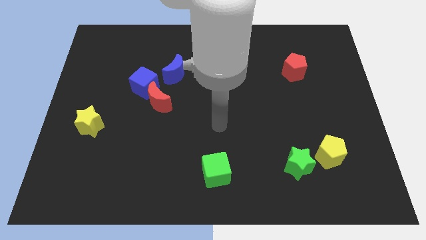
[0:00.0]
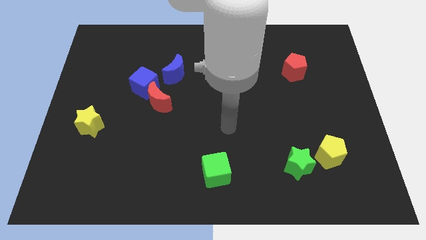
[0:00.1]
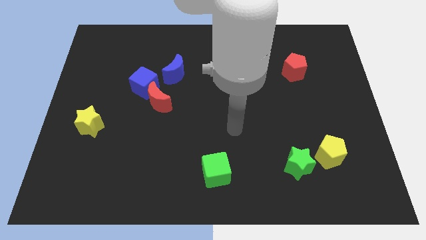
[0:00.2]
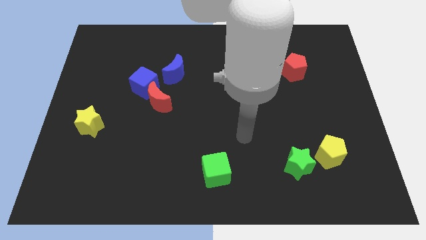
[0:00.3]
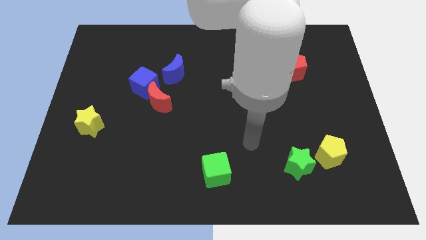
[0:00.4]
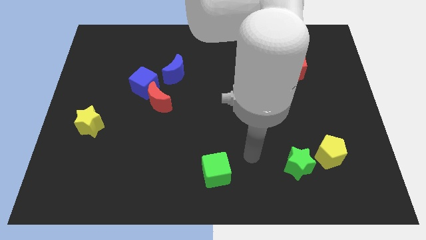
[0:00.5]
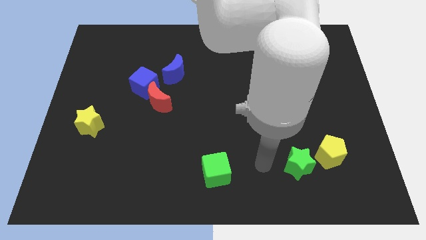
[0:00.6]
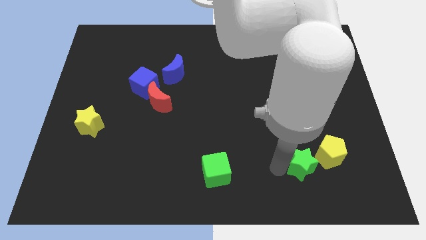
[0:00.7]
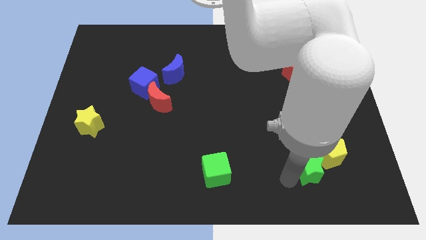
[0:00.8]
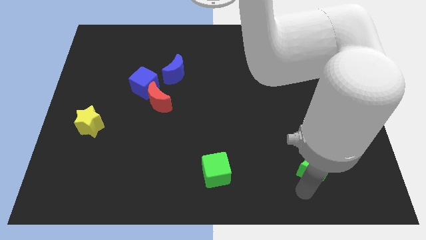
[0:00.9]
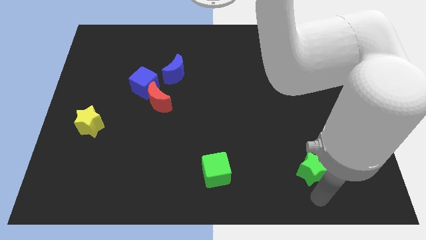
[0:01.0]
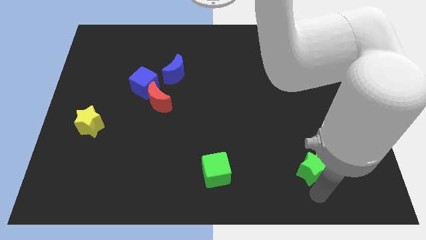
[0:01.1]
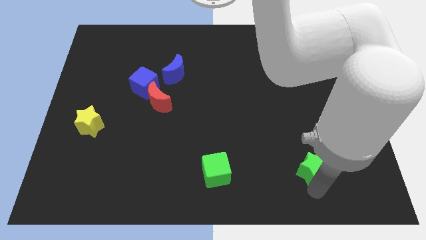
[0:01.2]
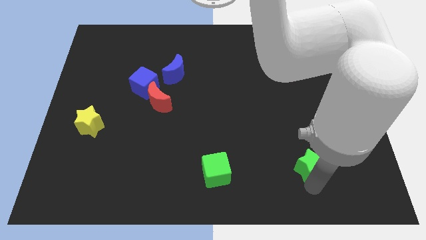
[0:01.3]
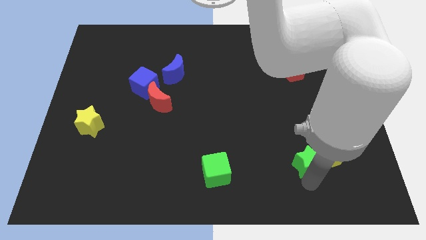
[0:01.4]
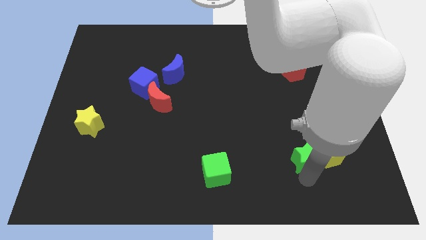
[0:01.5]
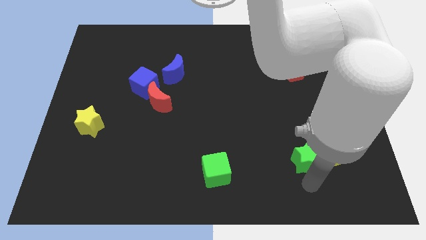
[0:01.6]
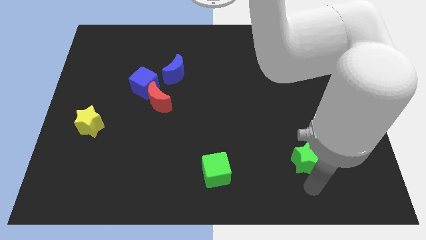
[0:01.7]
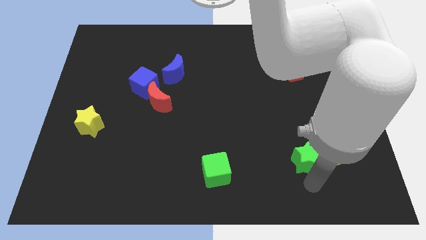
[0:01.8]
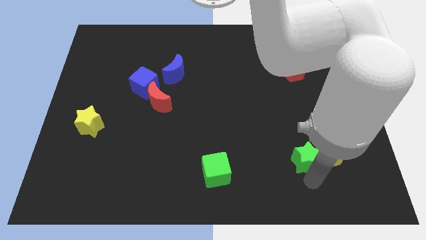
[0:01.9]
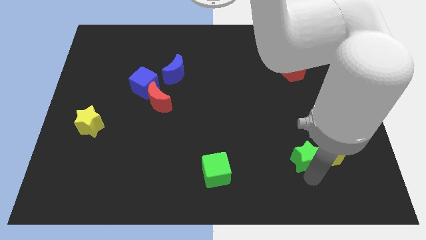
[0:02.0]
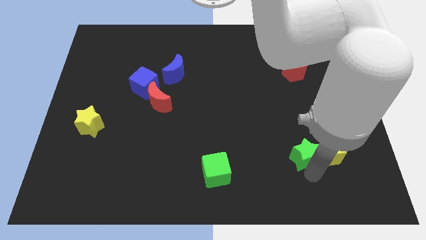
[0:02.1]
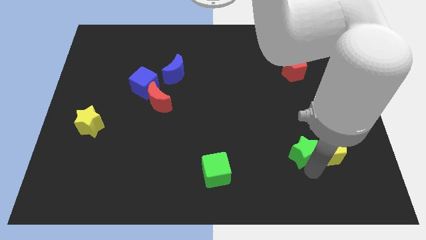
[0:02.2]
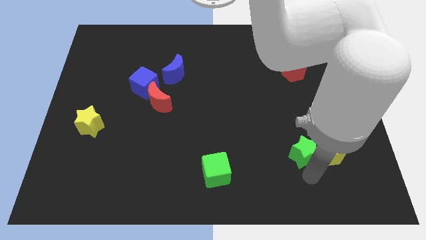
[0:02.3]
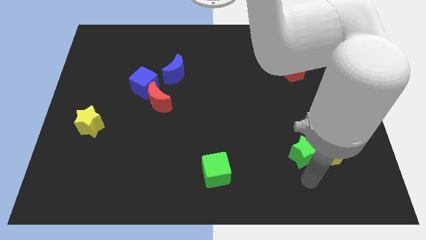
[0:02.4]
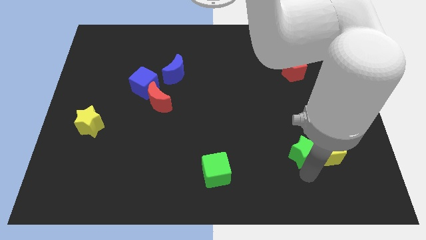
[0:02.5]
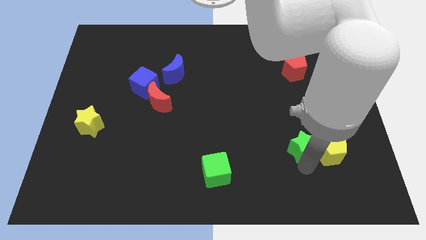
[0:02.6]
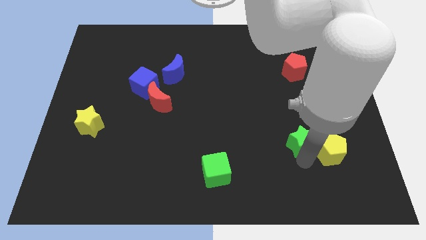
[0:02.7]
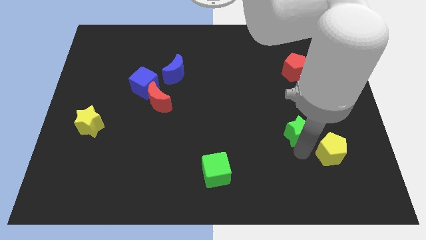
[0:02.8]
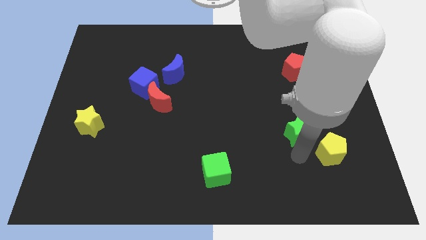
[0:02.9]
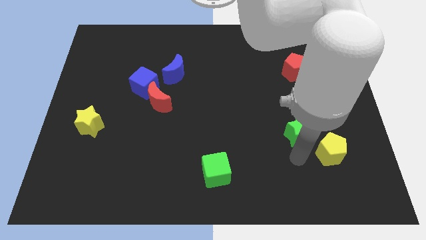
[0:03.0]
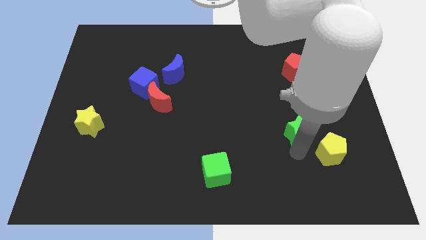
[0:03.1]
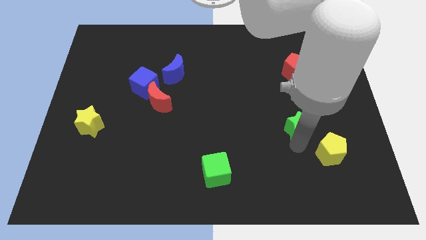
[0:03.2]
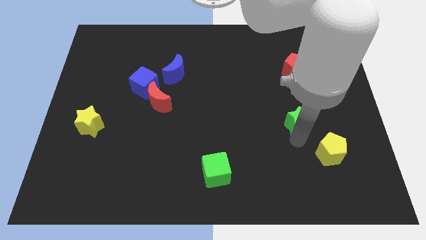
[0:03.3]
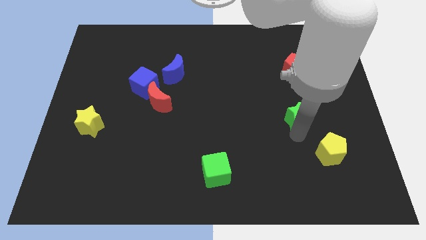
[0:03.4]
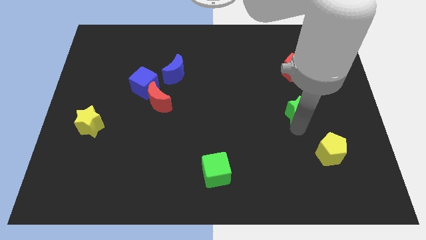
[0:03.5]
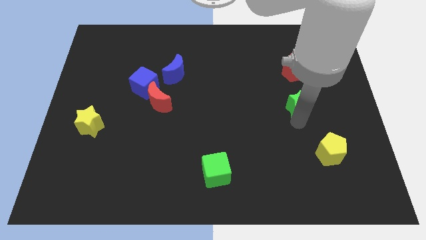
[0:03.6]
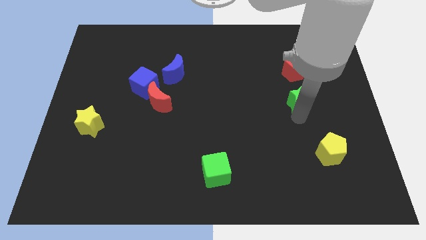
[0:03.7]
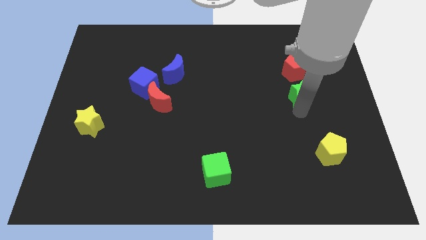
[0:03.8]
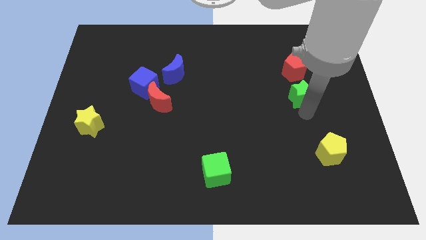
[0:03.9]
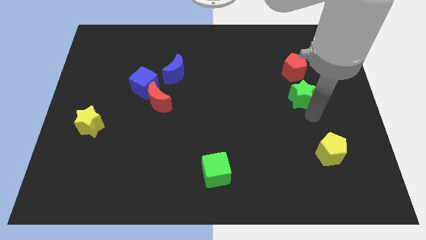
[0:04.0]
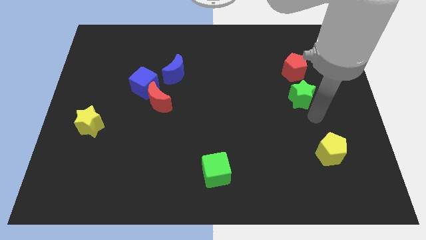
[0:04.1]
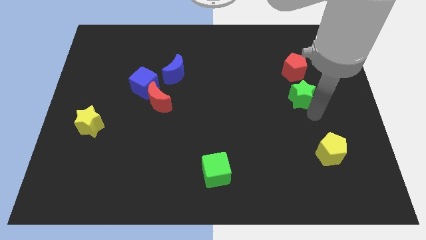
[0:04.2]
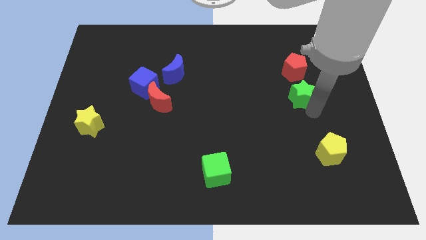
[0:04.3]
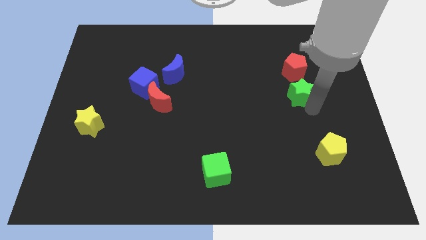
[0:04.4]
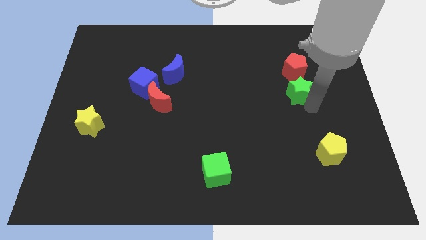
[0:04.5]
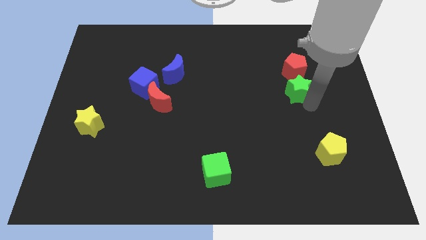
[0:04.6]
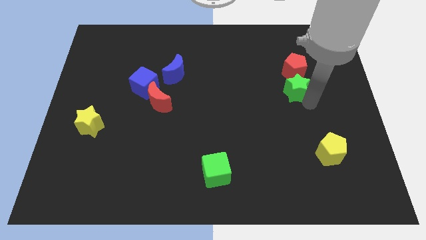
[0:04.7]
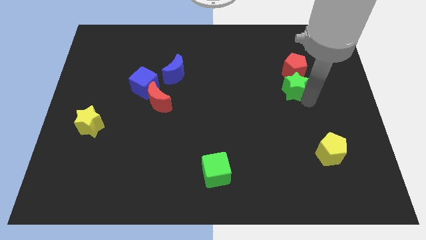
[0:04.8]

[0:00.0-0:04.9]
put the green star towards the red pentagon

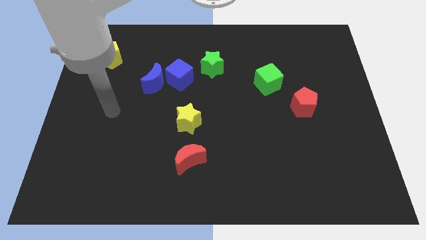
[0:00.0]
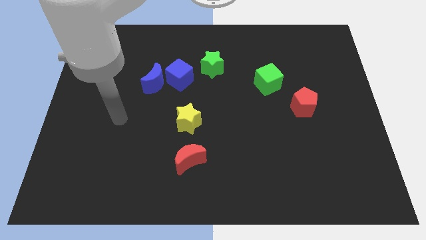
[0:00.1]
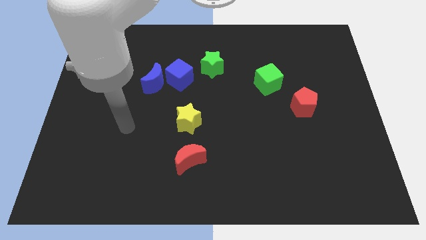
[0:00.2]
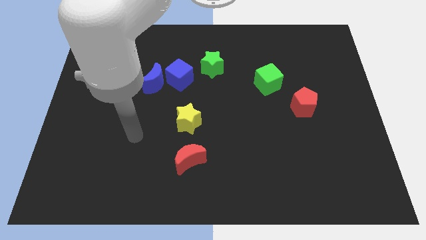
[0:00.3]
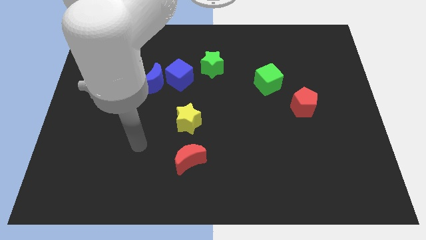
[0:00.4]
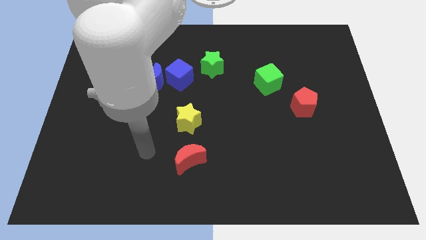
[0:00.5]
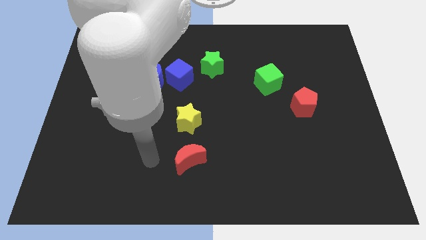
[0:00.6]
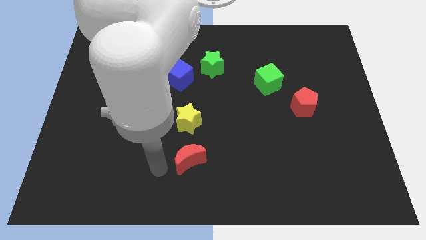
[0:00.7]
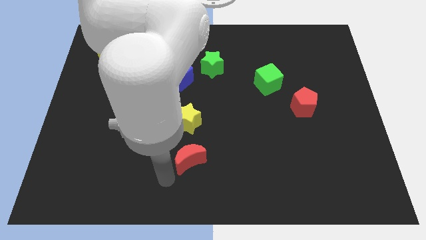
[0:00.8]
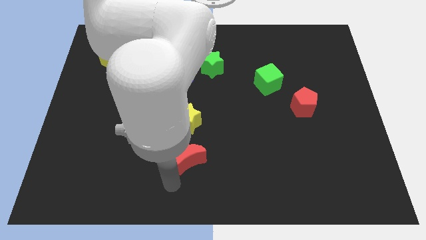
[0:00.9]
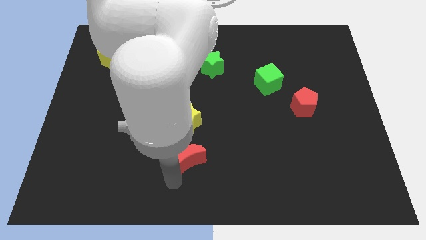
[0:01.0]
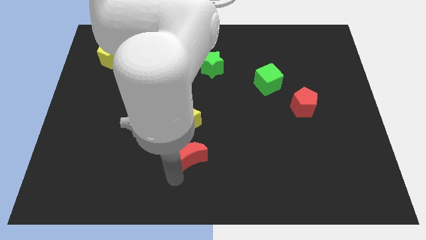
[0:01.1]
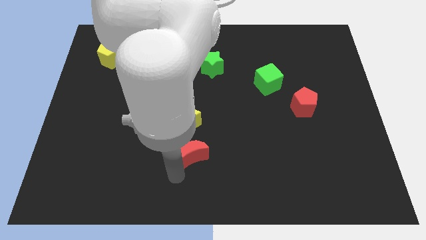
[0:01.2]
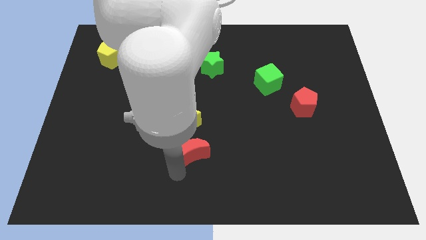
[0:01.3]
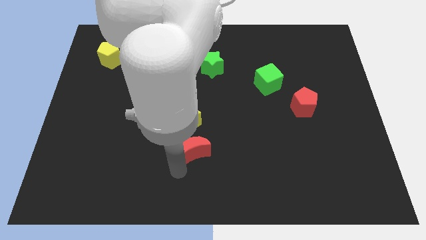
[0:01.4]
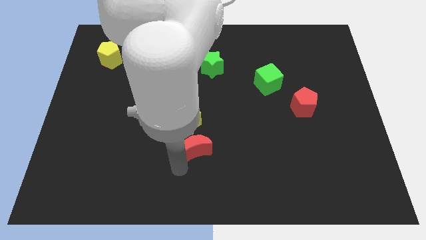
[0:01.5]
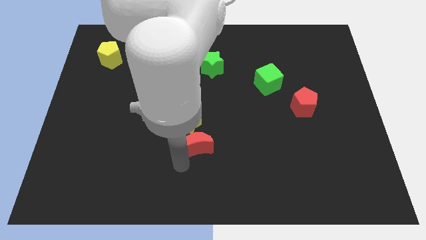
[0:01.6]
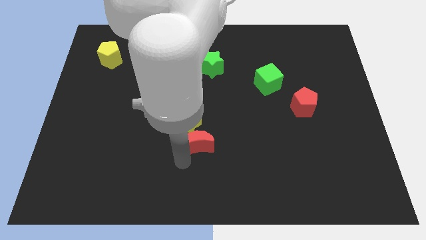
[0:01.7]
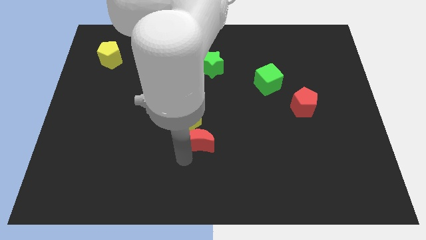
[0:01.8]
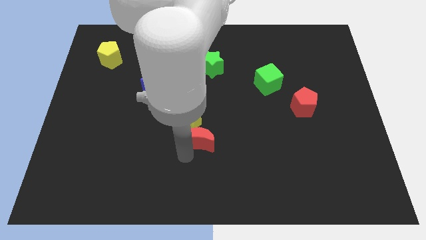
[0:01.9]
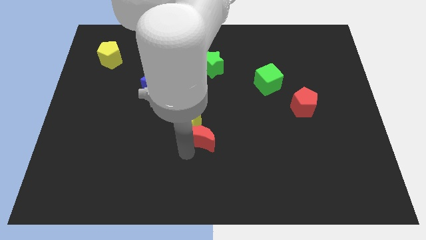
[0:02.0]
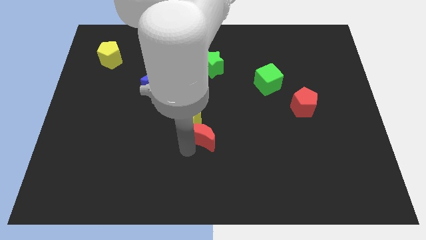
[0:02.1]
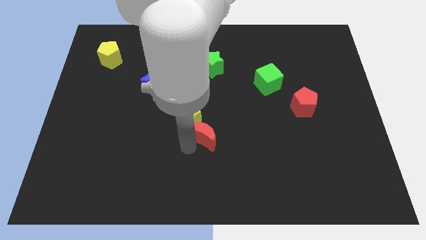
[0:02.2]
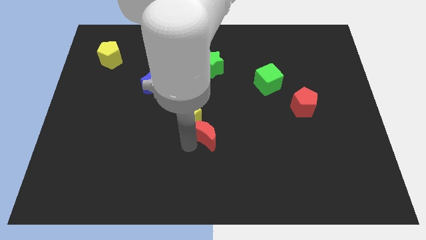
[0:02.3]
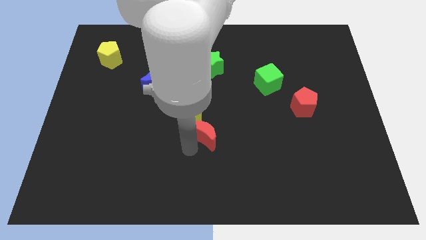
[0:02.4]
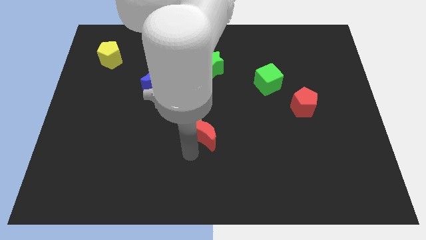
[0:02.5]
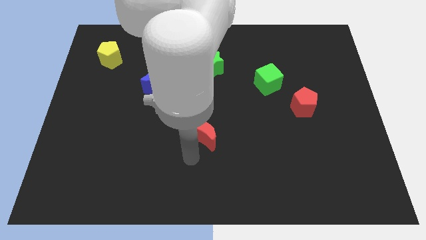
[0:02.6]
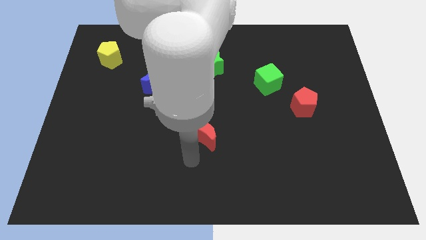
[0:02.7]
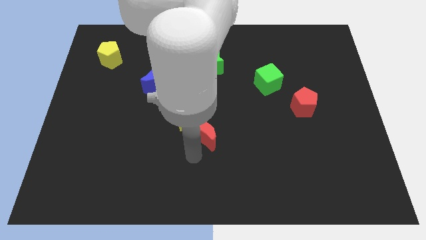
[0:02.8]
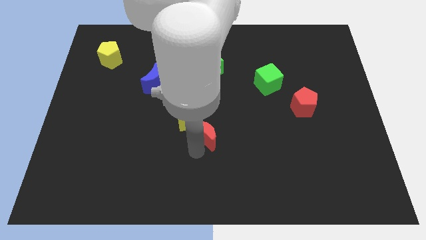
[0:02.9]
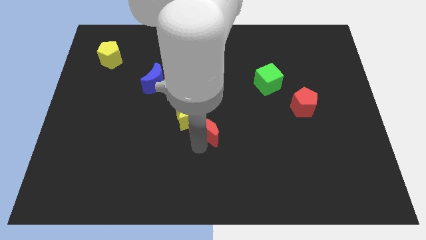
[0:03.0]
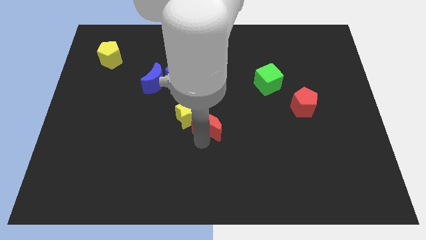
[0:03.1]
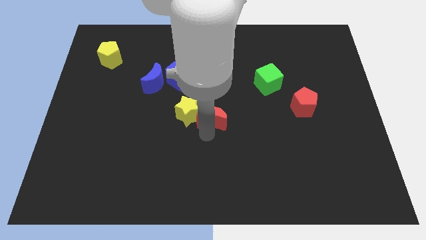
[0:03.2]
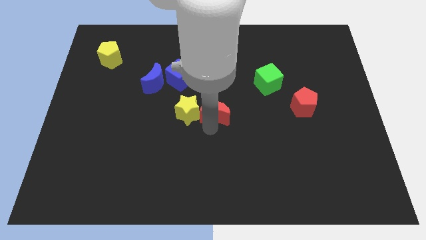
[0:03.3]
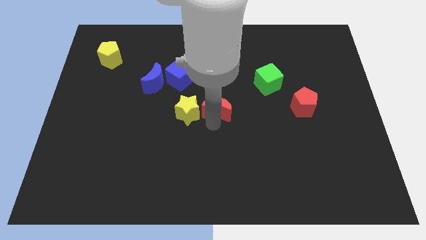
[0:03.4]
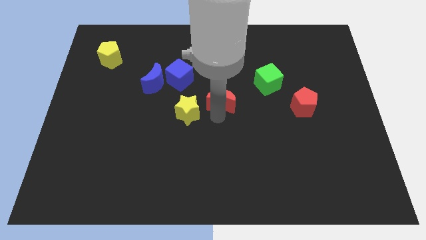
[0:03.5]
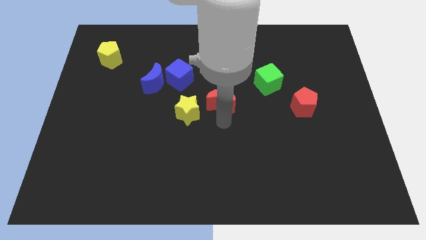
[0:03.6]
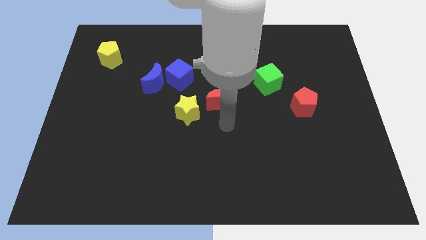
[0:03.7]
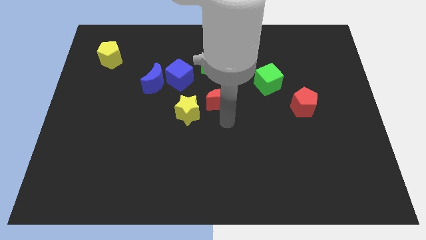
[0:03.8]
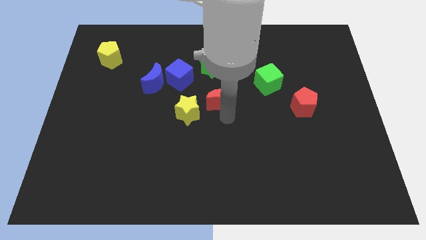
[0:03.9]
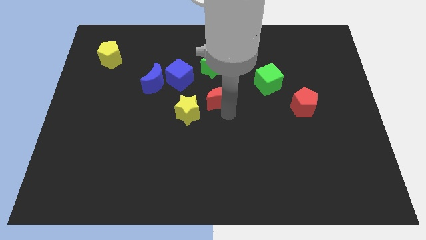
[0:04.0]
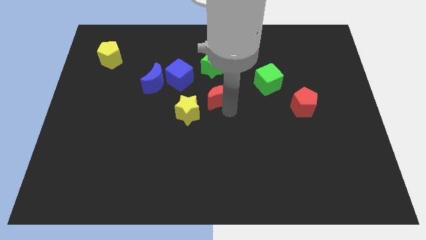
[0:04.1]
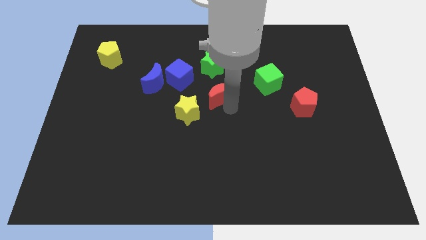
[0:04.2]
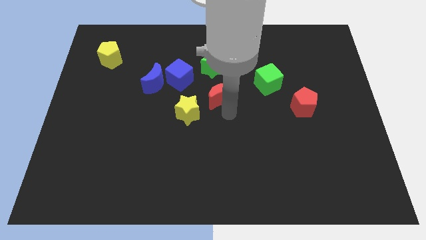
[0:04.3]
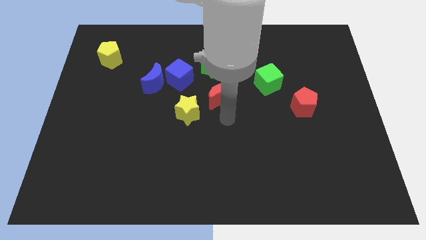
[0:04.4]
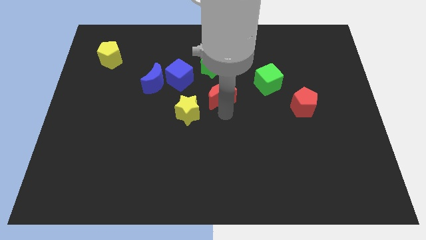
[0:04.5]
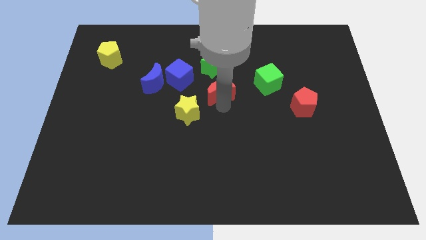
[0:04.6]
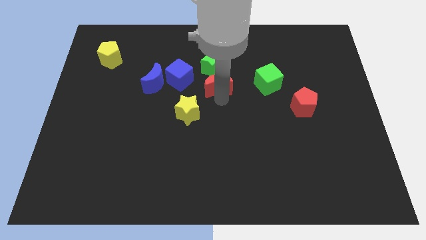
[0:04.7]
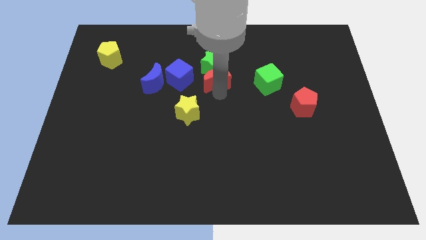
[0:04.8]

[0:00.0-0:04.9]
slide the red moon to the green star
